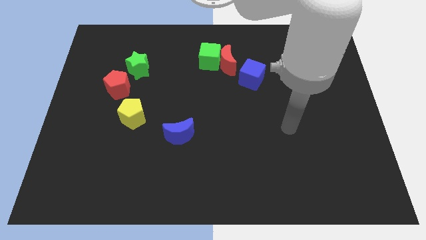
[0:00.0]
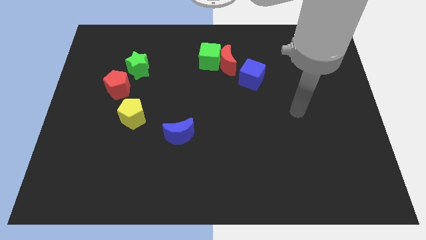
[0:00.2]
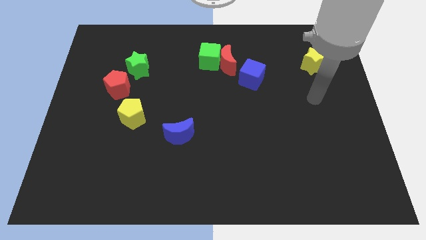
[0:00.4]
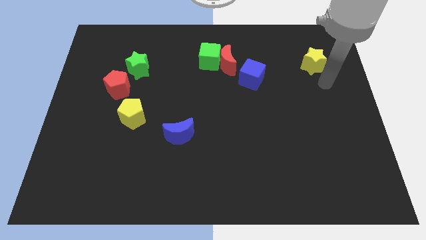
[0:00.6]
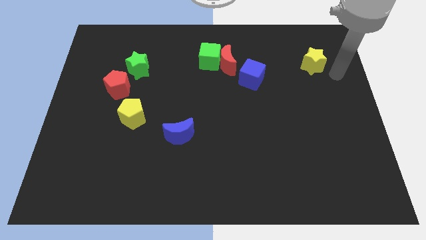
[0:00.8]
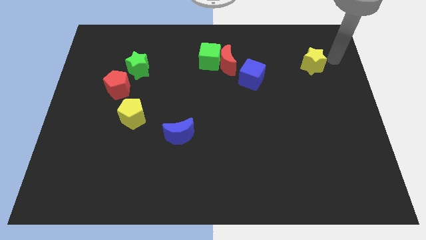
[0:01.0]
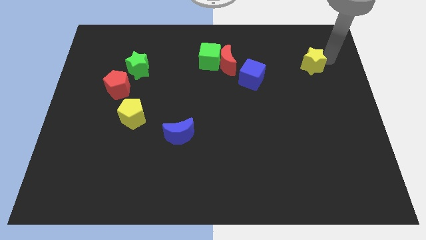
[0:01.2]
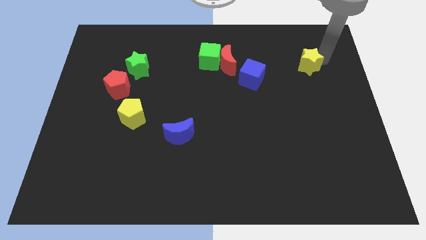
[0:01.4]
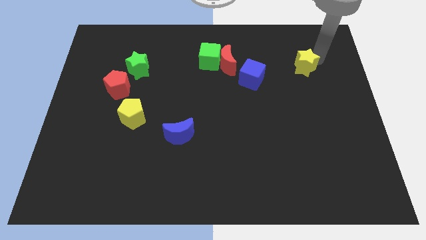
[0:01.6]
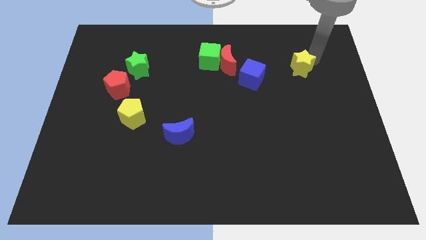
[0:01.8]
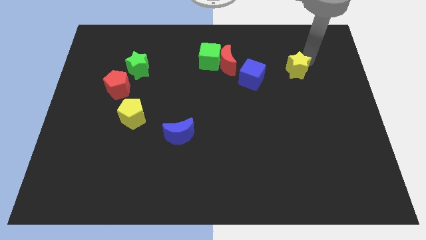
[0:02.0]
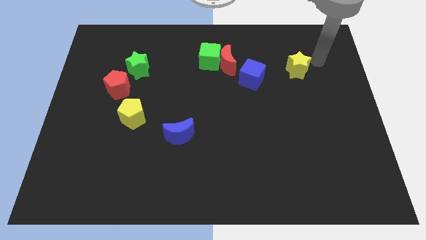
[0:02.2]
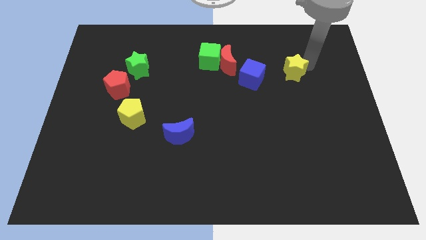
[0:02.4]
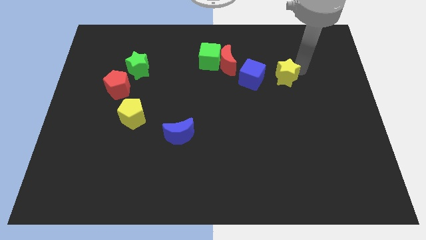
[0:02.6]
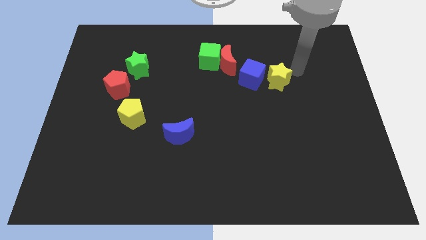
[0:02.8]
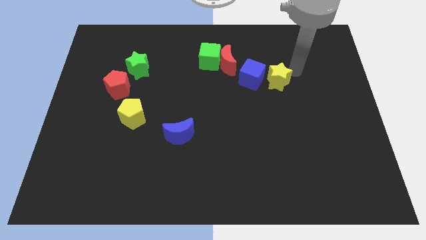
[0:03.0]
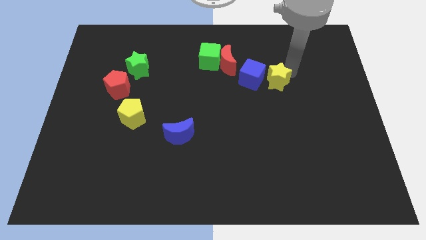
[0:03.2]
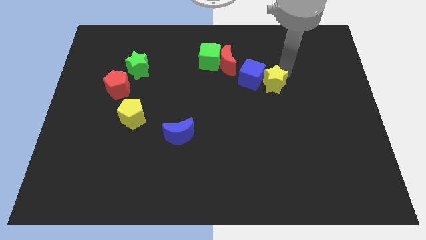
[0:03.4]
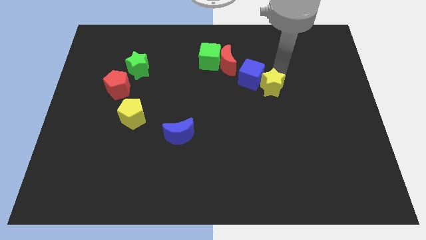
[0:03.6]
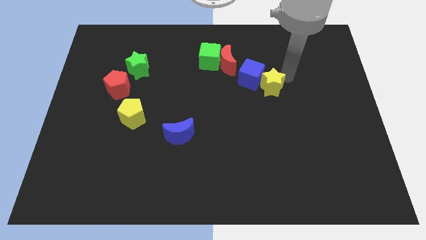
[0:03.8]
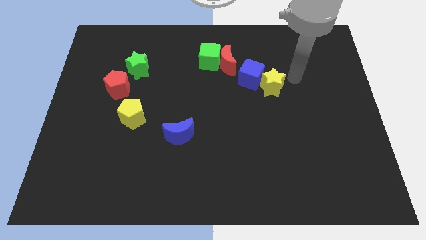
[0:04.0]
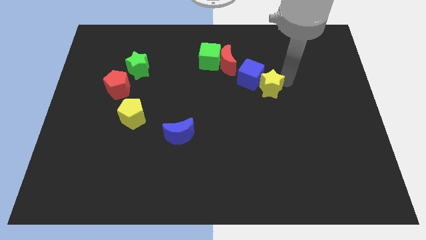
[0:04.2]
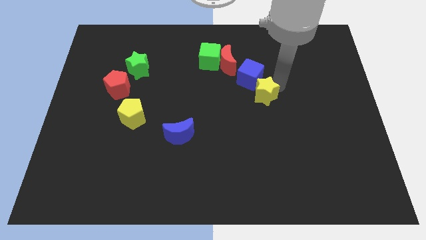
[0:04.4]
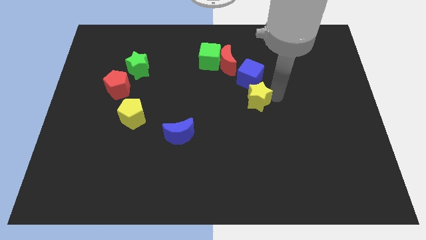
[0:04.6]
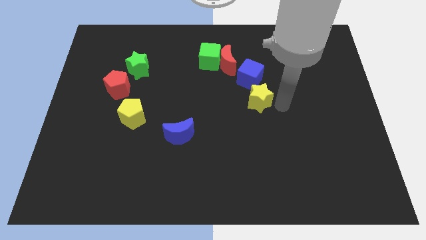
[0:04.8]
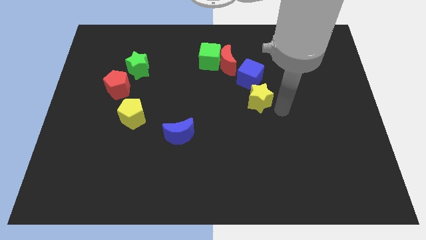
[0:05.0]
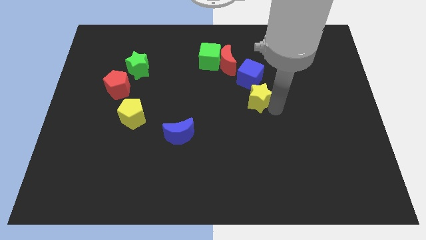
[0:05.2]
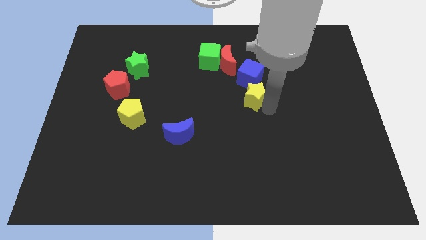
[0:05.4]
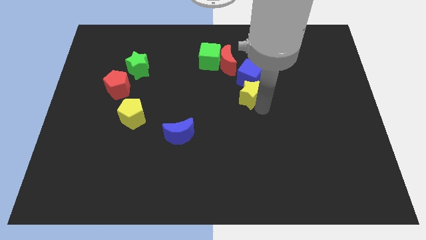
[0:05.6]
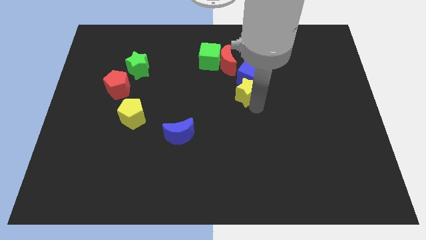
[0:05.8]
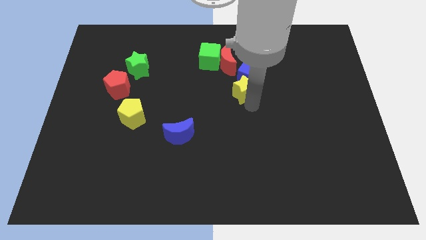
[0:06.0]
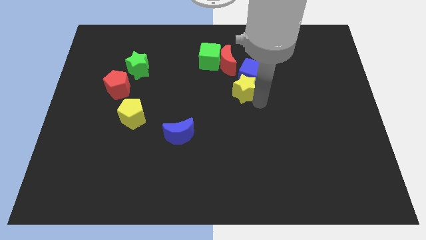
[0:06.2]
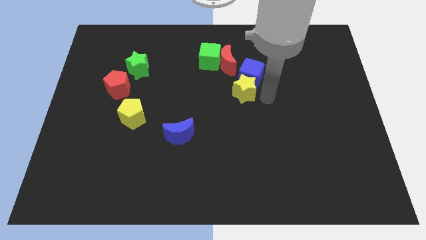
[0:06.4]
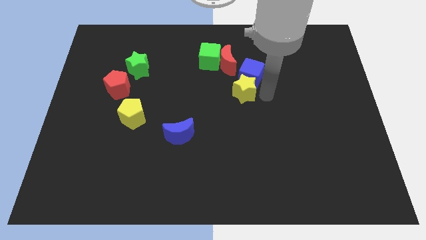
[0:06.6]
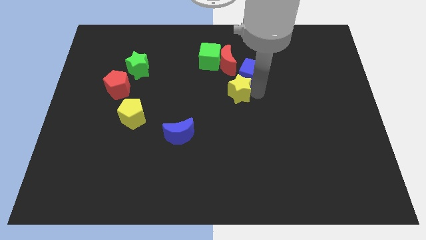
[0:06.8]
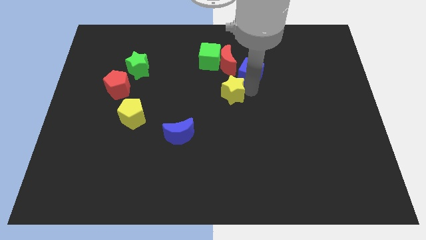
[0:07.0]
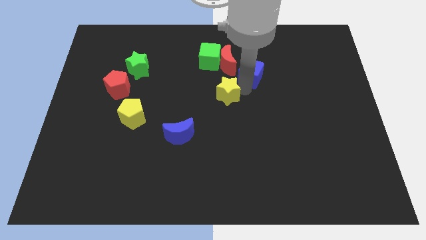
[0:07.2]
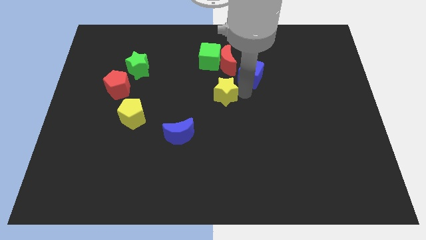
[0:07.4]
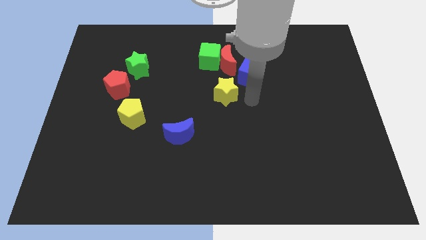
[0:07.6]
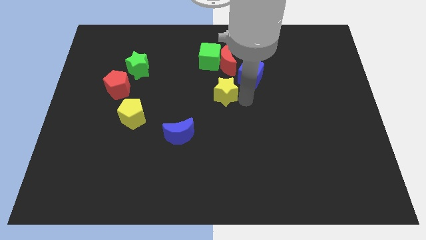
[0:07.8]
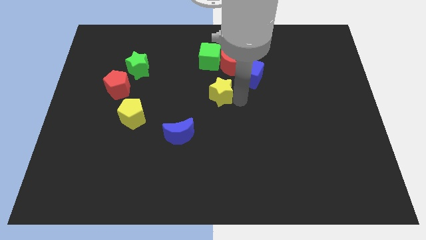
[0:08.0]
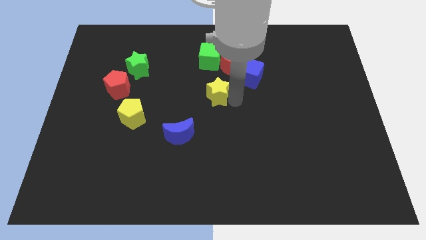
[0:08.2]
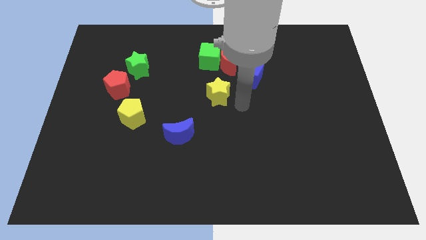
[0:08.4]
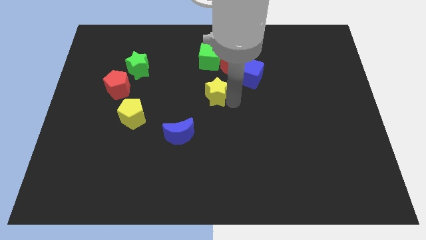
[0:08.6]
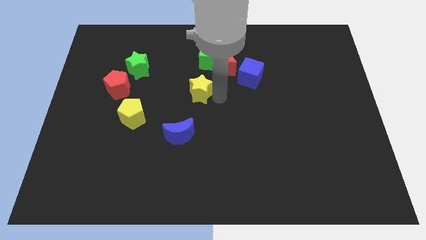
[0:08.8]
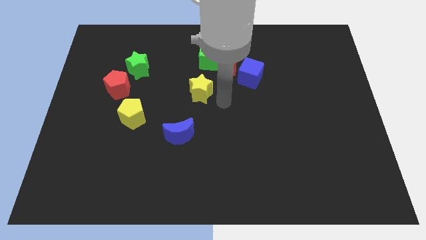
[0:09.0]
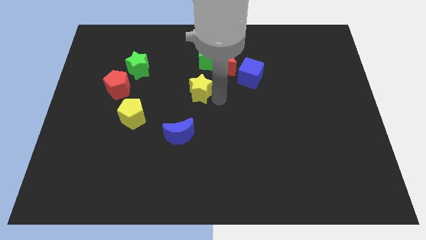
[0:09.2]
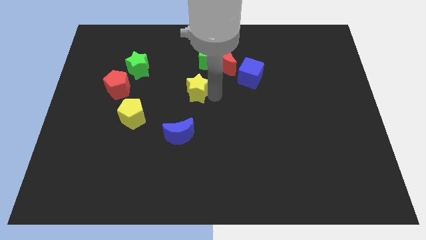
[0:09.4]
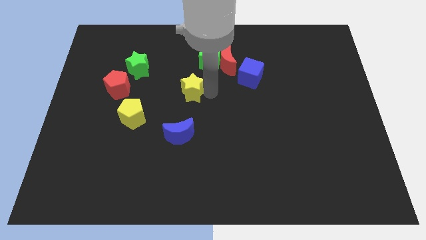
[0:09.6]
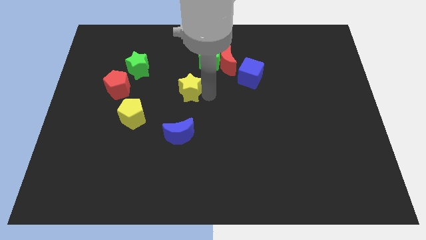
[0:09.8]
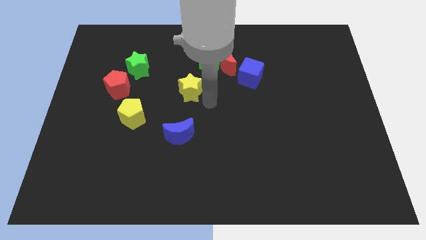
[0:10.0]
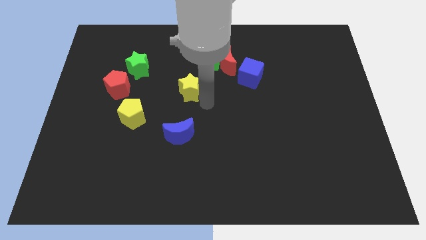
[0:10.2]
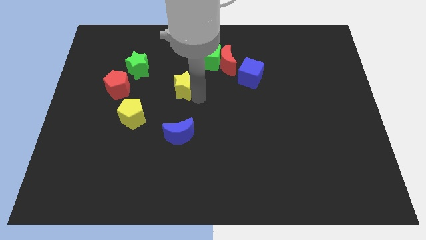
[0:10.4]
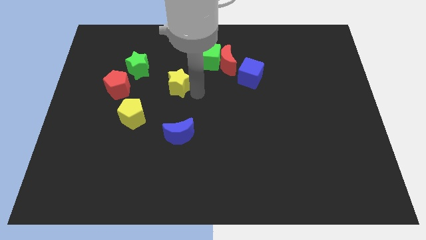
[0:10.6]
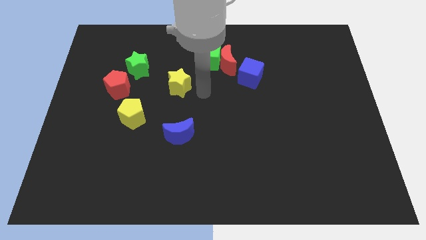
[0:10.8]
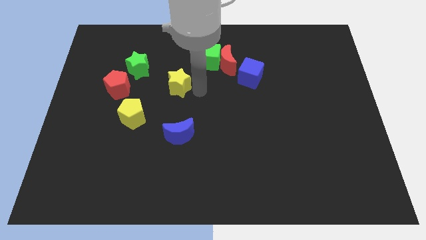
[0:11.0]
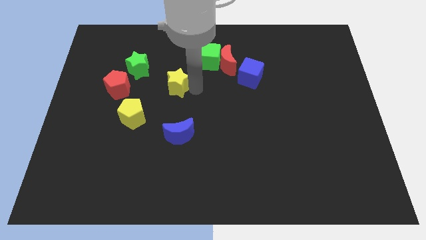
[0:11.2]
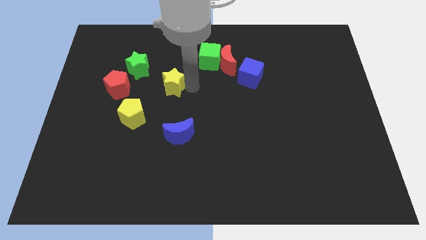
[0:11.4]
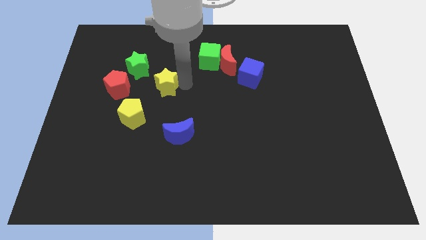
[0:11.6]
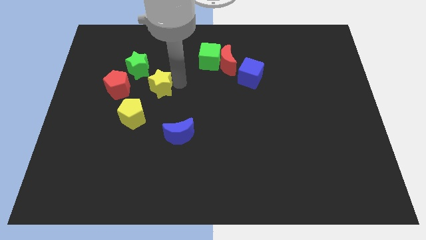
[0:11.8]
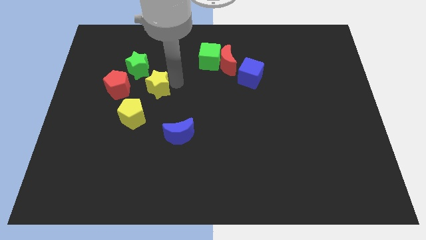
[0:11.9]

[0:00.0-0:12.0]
put the yellow star above the yellow pentagon
